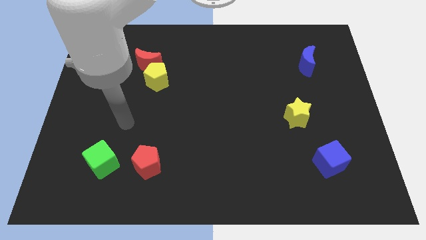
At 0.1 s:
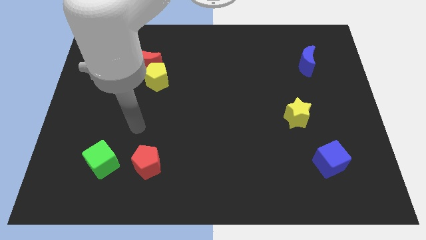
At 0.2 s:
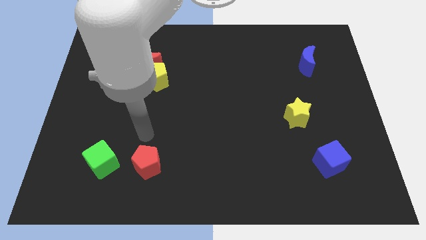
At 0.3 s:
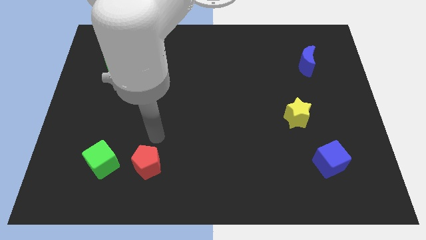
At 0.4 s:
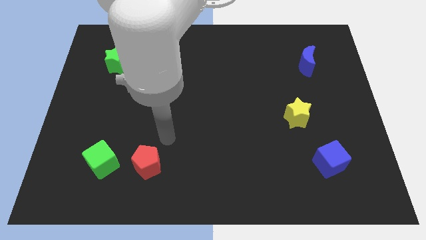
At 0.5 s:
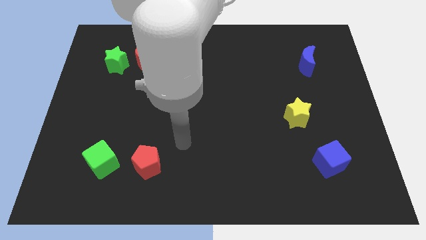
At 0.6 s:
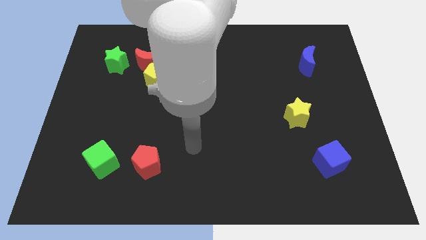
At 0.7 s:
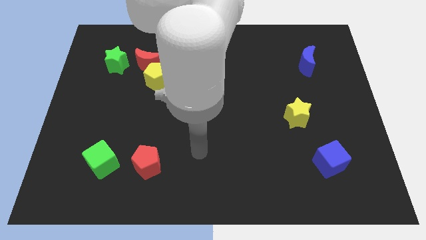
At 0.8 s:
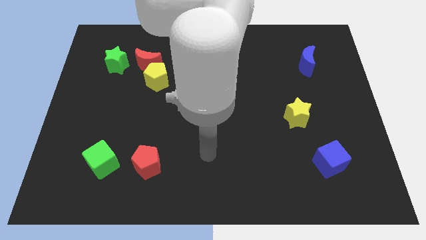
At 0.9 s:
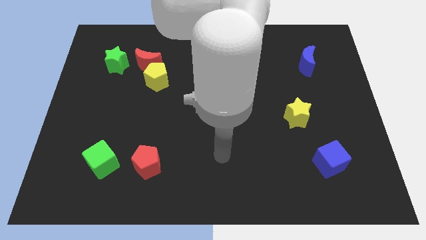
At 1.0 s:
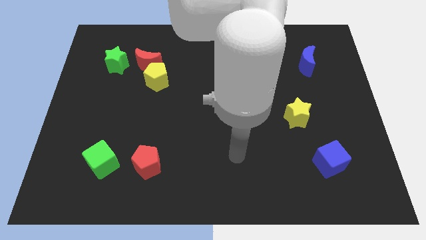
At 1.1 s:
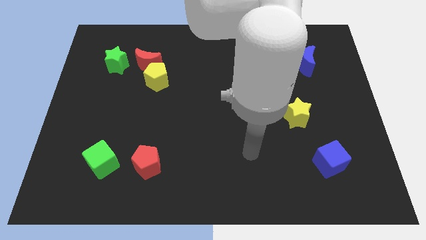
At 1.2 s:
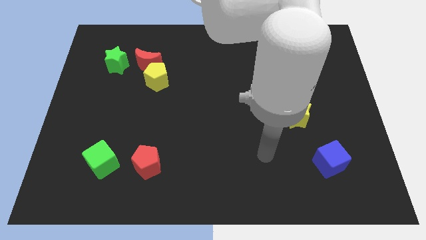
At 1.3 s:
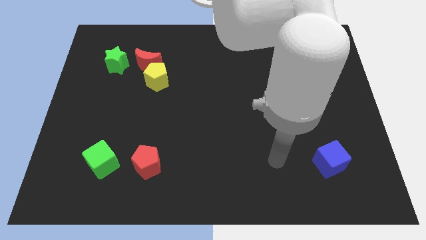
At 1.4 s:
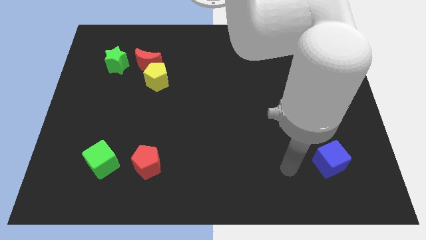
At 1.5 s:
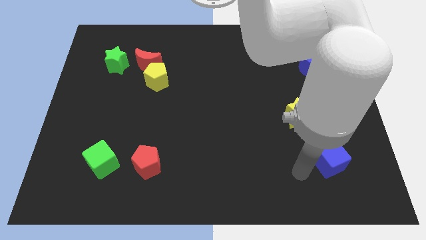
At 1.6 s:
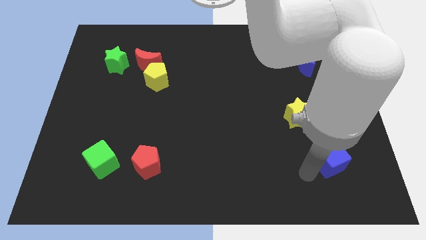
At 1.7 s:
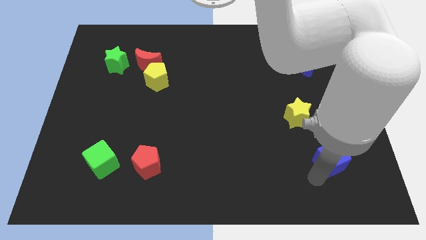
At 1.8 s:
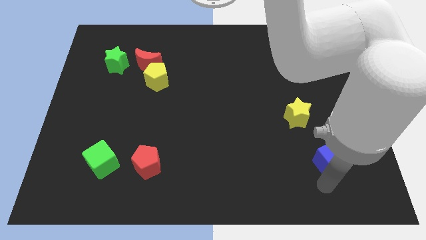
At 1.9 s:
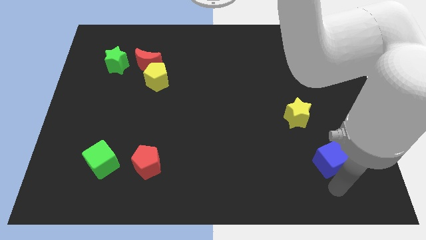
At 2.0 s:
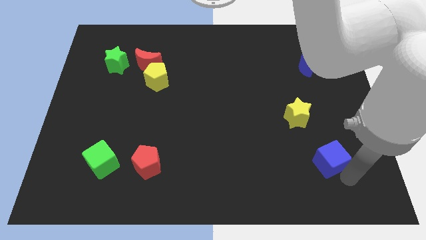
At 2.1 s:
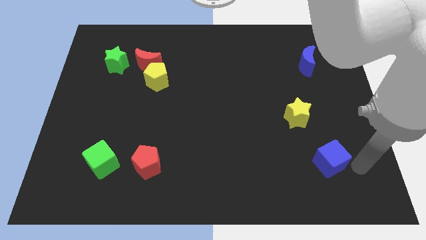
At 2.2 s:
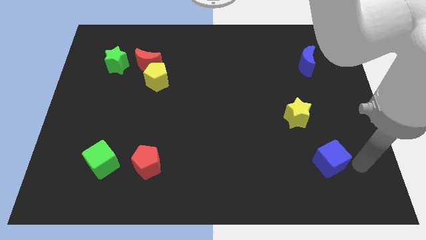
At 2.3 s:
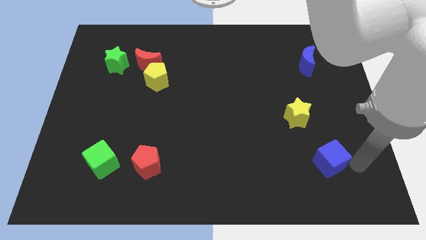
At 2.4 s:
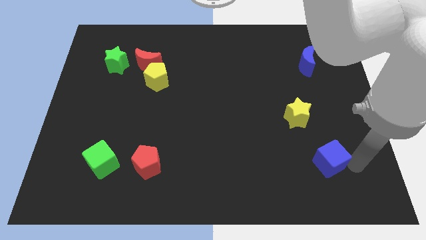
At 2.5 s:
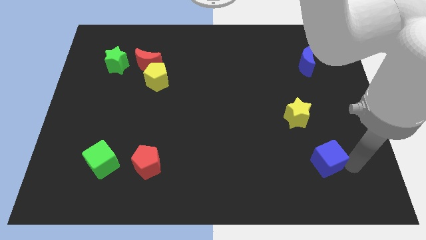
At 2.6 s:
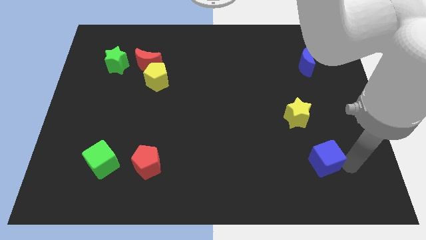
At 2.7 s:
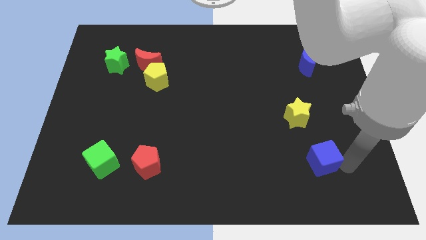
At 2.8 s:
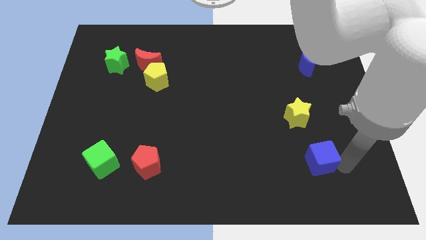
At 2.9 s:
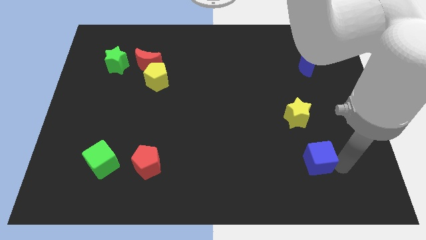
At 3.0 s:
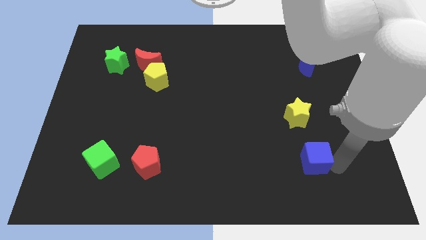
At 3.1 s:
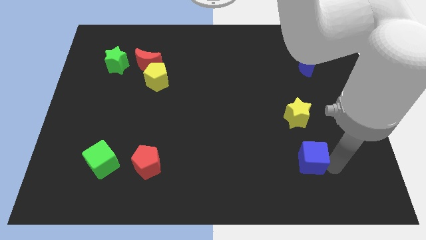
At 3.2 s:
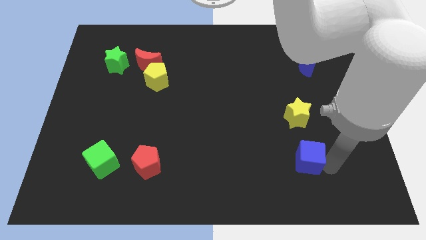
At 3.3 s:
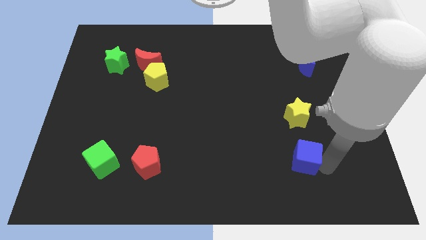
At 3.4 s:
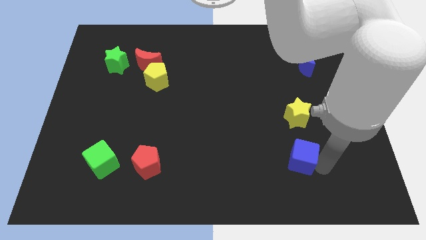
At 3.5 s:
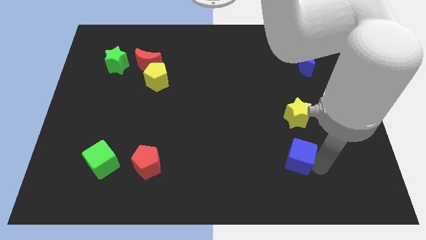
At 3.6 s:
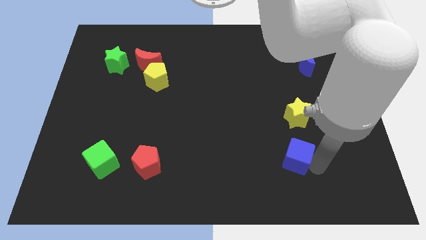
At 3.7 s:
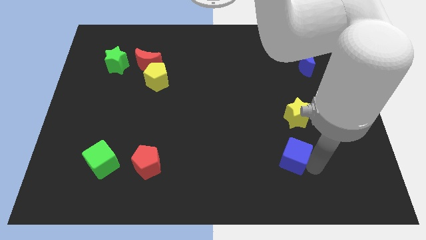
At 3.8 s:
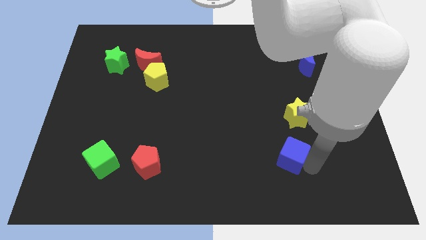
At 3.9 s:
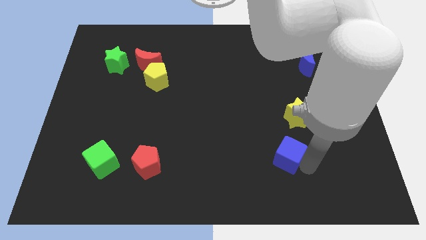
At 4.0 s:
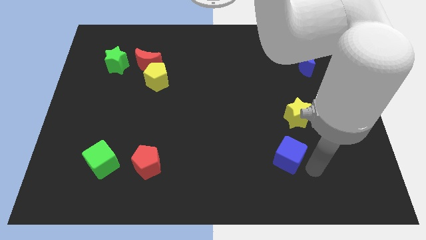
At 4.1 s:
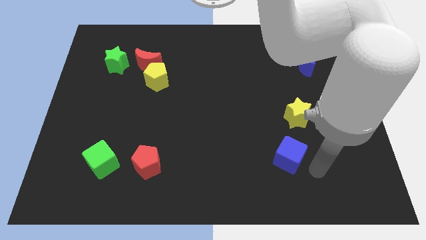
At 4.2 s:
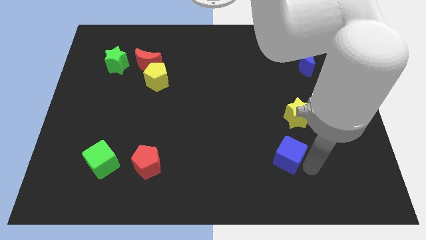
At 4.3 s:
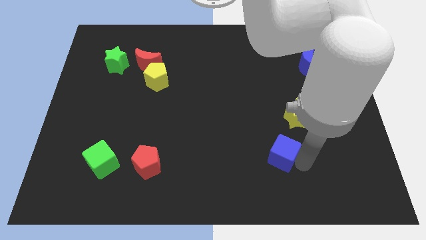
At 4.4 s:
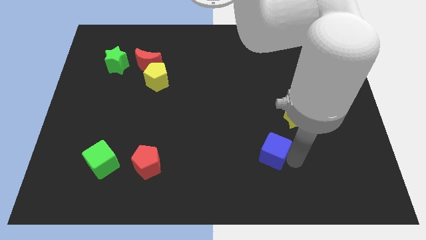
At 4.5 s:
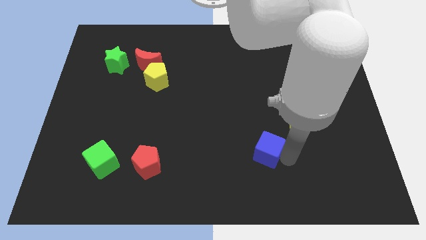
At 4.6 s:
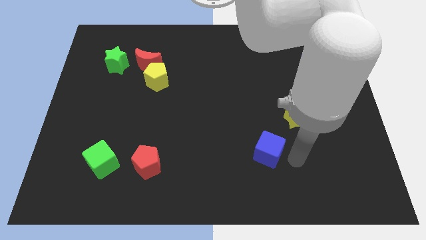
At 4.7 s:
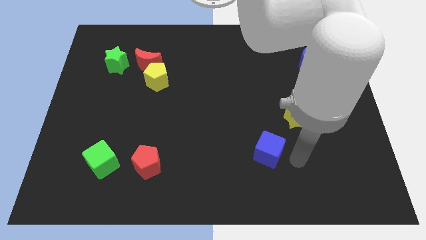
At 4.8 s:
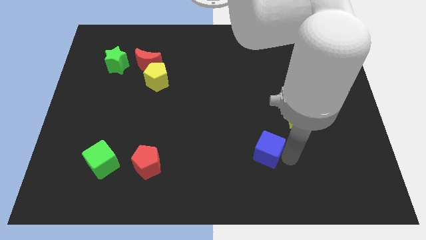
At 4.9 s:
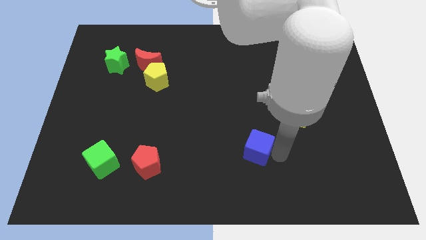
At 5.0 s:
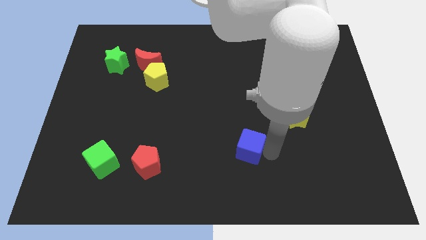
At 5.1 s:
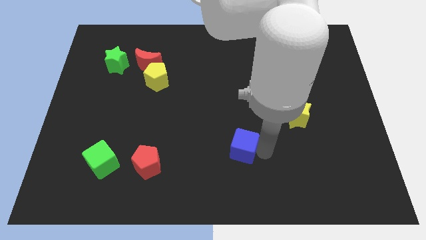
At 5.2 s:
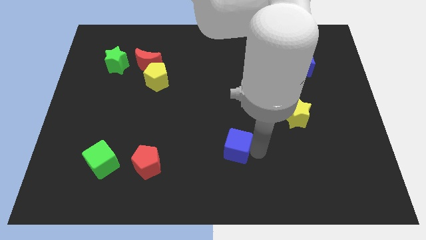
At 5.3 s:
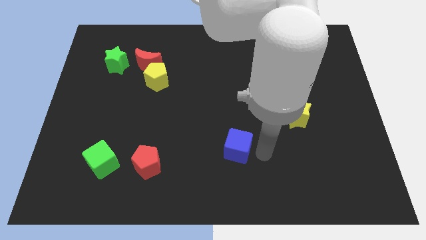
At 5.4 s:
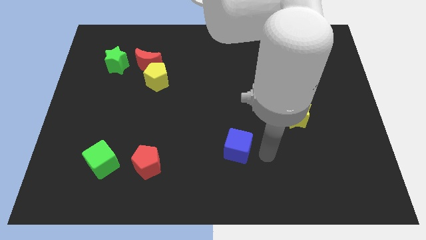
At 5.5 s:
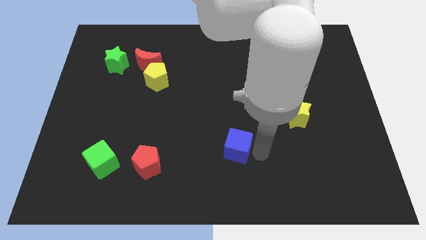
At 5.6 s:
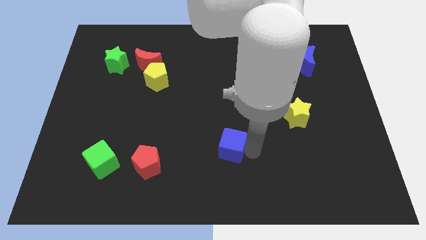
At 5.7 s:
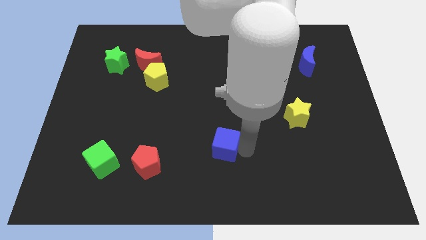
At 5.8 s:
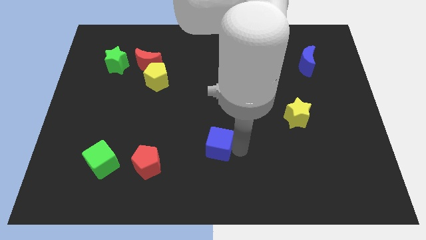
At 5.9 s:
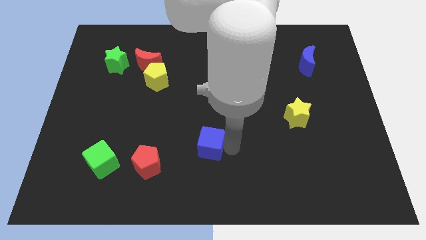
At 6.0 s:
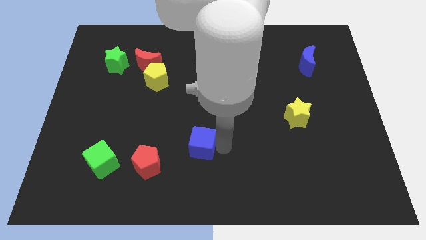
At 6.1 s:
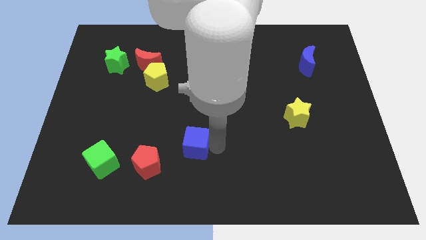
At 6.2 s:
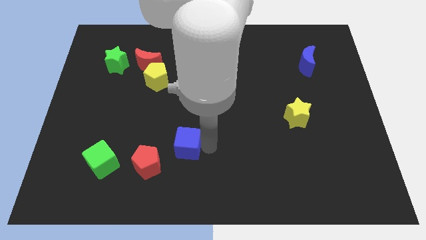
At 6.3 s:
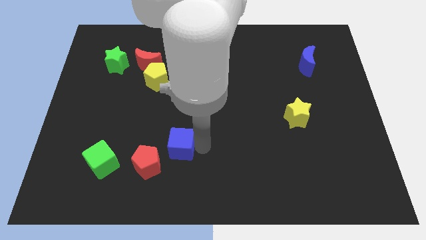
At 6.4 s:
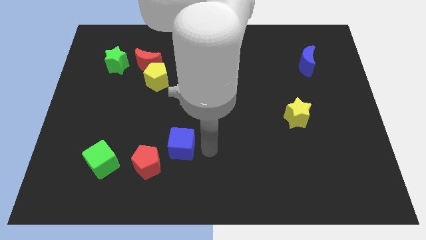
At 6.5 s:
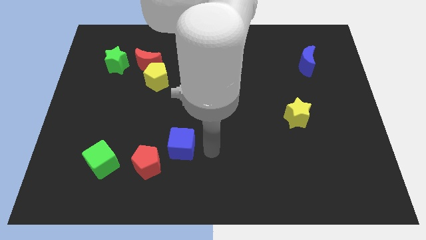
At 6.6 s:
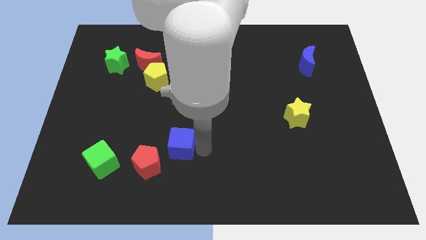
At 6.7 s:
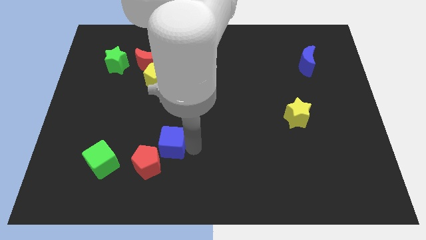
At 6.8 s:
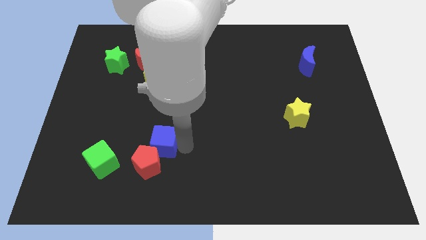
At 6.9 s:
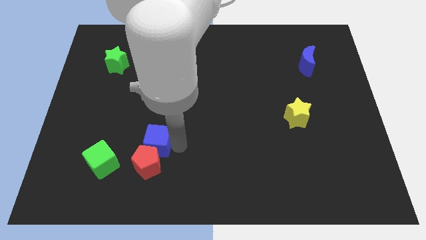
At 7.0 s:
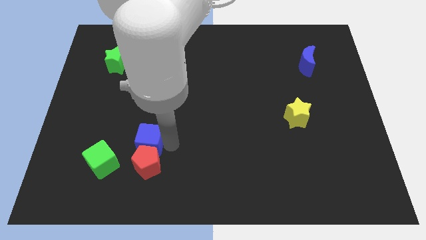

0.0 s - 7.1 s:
slide the blue cube to the top right of the green cube
